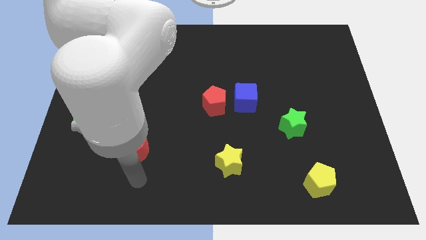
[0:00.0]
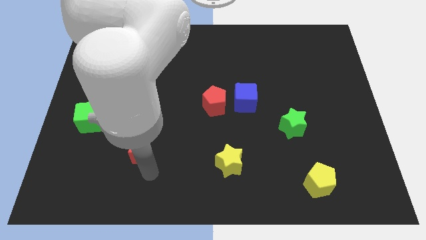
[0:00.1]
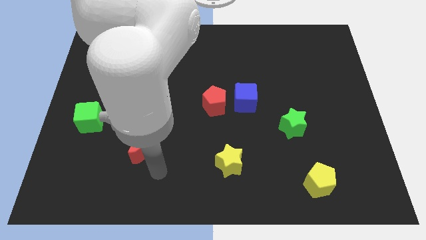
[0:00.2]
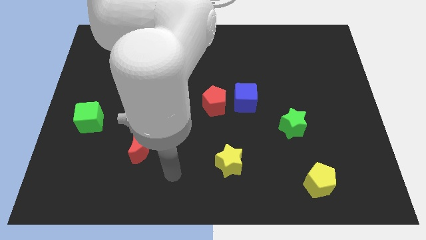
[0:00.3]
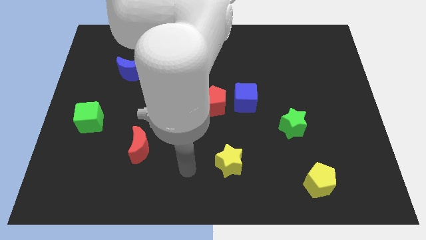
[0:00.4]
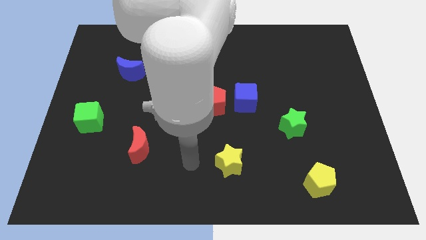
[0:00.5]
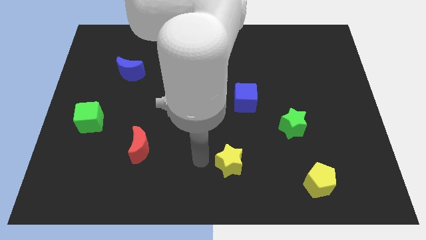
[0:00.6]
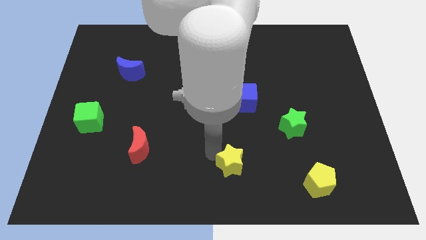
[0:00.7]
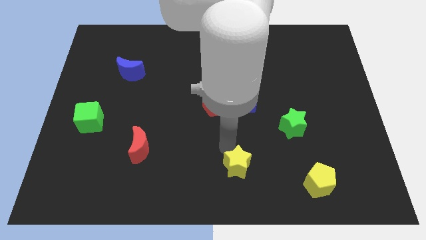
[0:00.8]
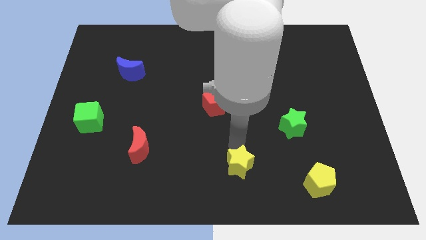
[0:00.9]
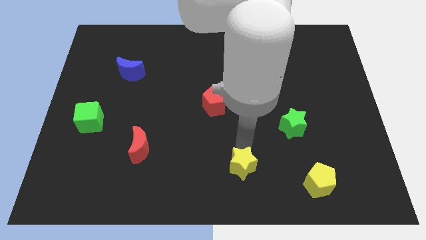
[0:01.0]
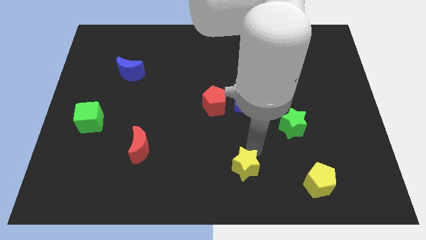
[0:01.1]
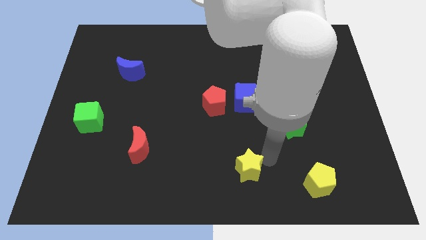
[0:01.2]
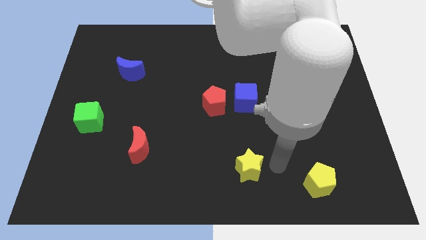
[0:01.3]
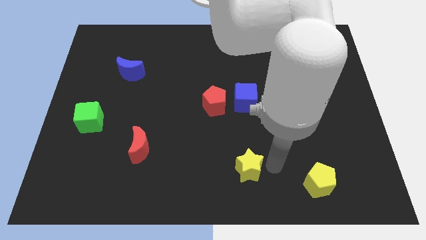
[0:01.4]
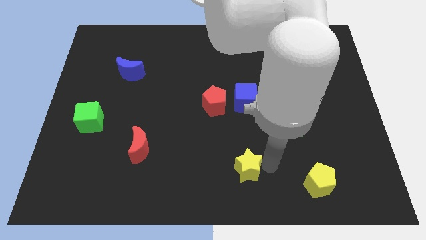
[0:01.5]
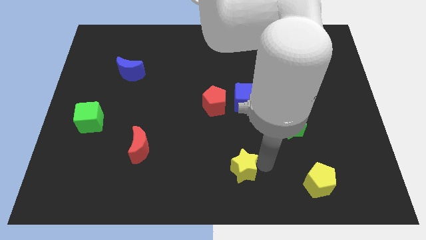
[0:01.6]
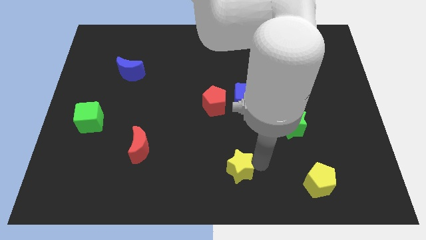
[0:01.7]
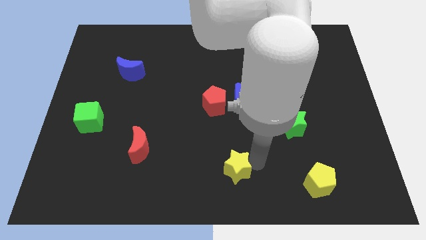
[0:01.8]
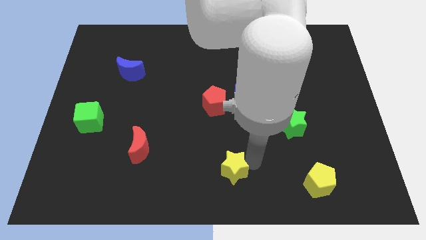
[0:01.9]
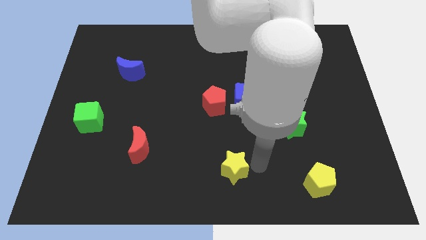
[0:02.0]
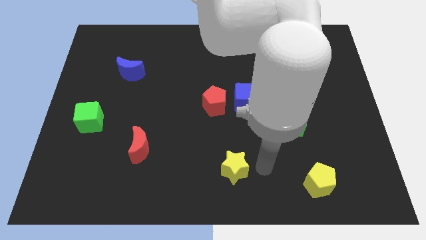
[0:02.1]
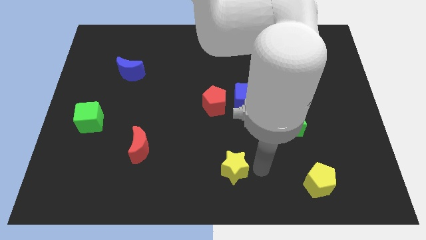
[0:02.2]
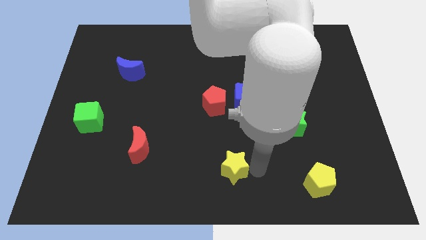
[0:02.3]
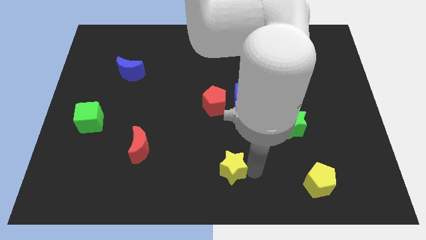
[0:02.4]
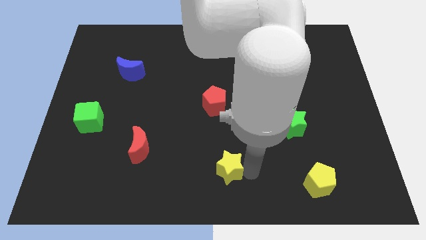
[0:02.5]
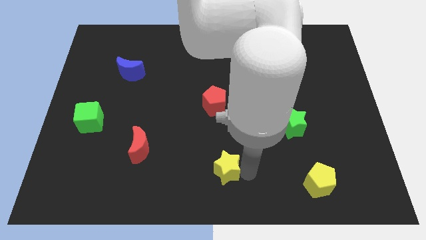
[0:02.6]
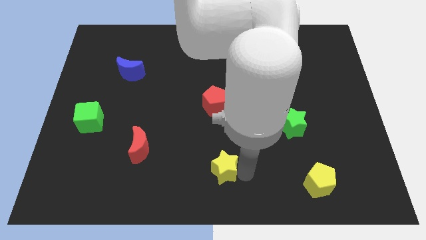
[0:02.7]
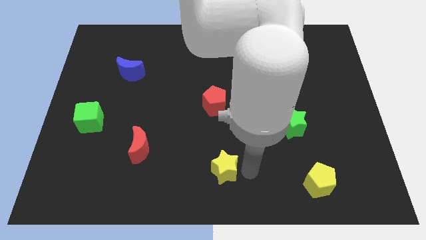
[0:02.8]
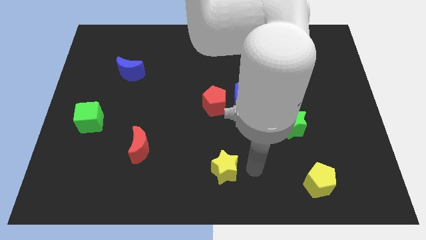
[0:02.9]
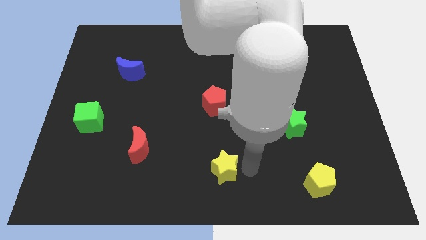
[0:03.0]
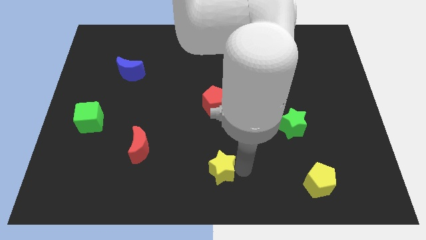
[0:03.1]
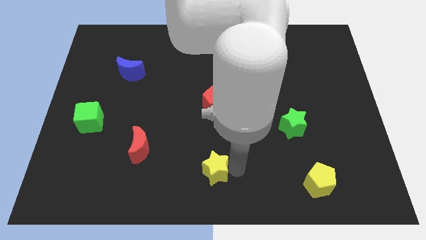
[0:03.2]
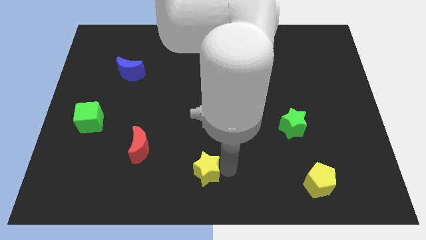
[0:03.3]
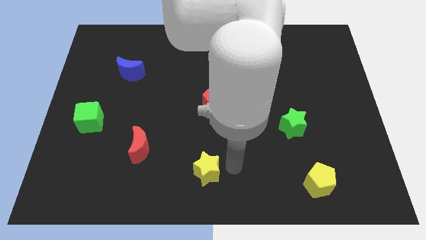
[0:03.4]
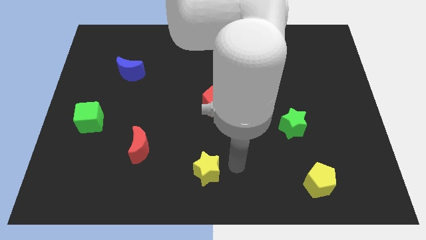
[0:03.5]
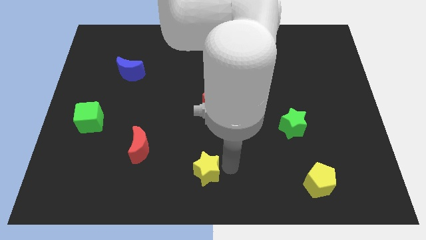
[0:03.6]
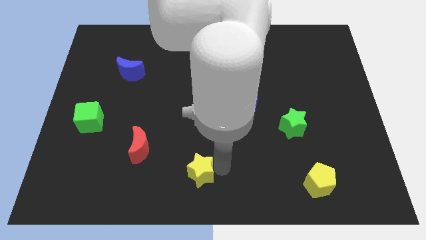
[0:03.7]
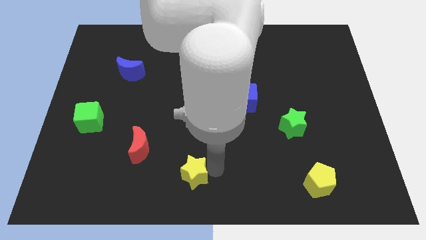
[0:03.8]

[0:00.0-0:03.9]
push the yellow star a little to the left

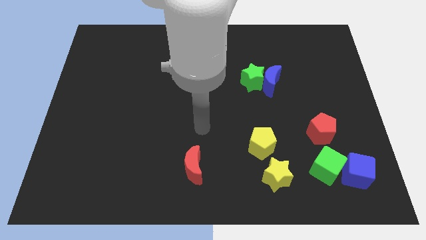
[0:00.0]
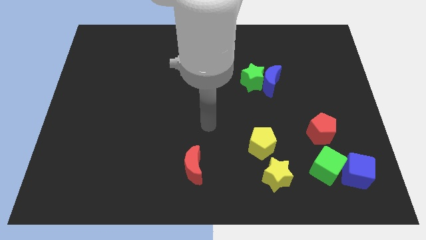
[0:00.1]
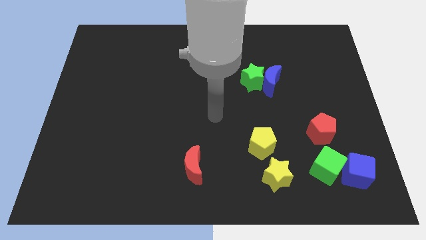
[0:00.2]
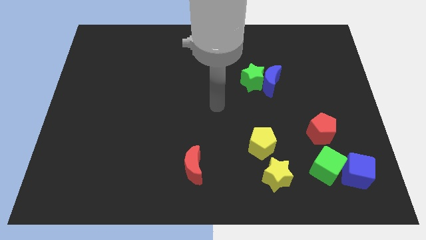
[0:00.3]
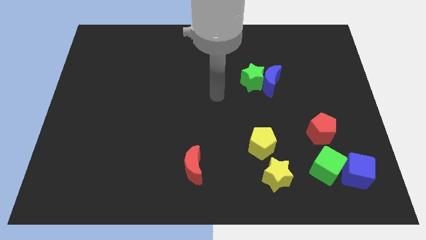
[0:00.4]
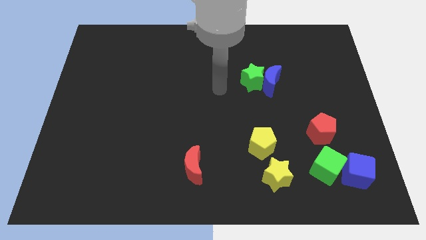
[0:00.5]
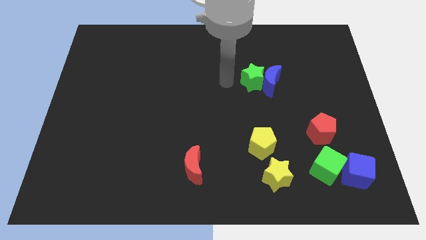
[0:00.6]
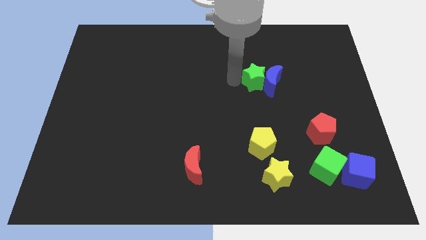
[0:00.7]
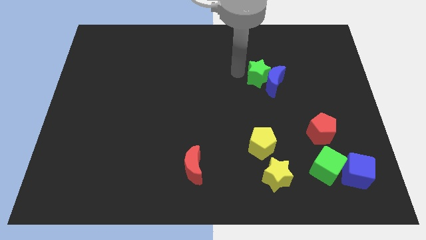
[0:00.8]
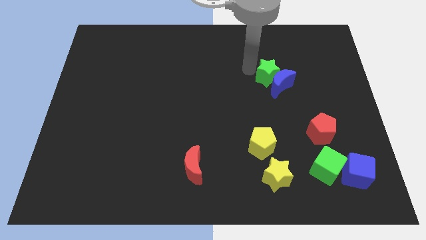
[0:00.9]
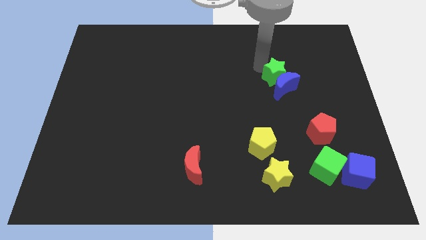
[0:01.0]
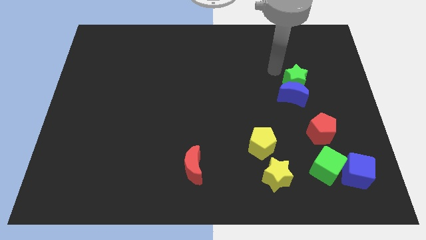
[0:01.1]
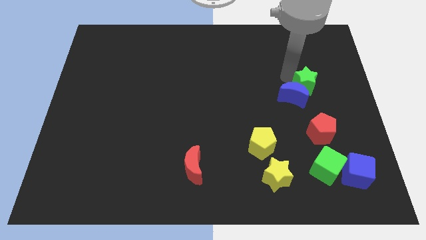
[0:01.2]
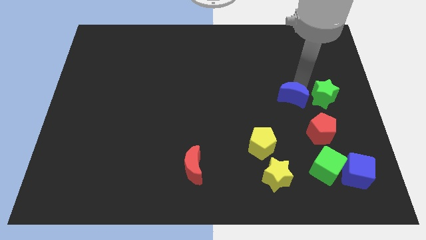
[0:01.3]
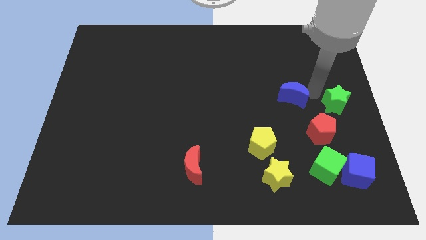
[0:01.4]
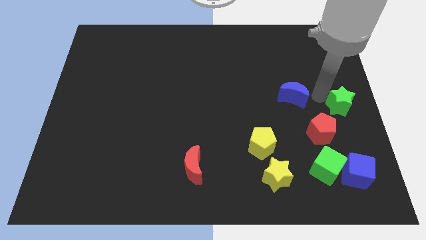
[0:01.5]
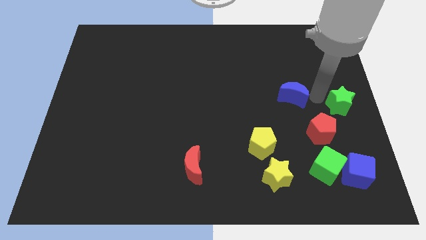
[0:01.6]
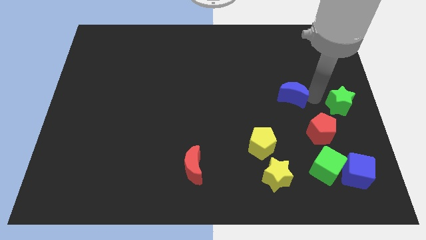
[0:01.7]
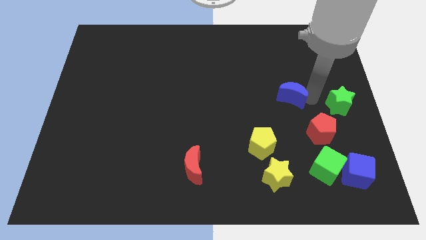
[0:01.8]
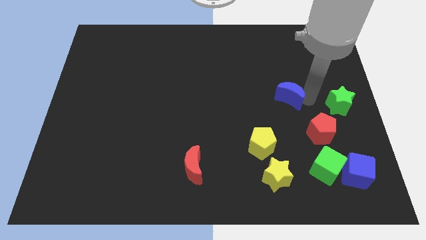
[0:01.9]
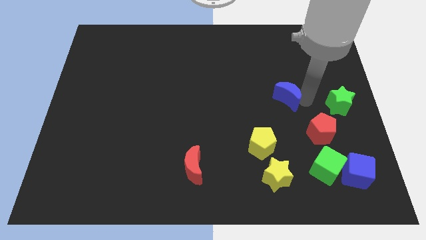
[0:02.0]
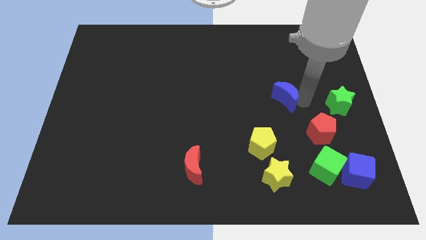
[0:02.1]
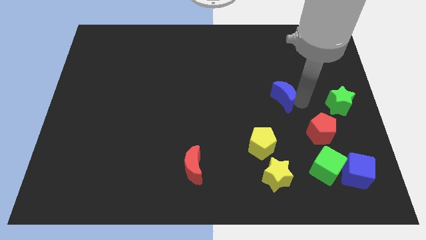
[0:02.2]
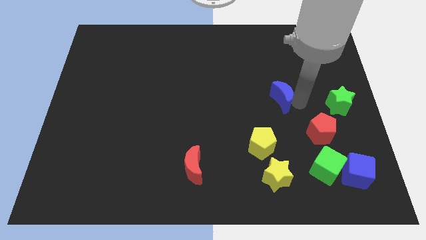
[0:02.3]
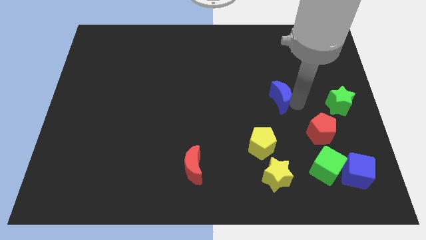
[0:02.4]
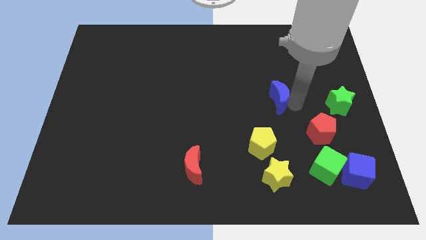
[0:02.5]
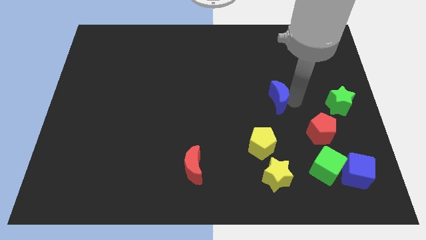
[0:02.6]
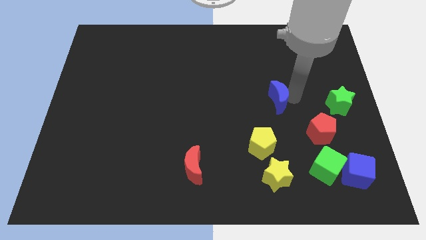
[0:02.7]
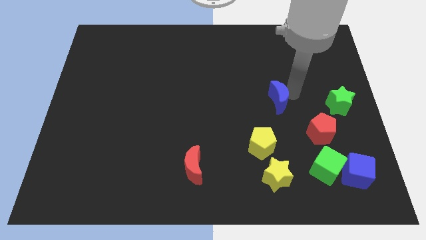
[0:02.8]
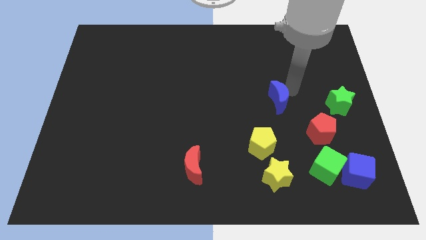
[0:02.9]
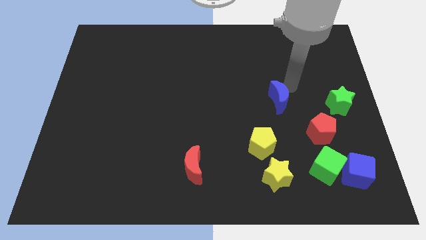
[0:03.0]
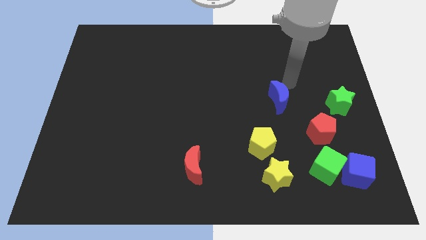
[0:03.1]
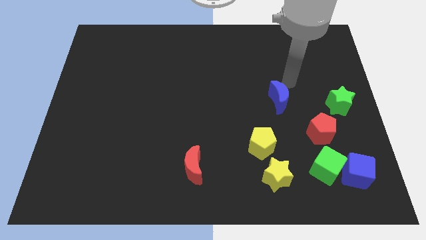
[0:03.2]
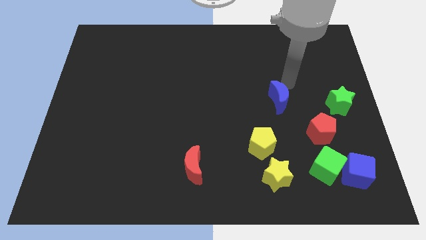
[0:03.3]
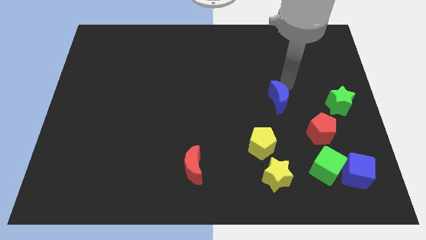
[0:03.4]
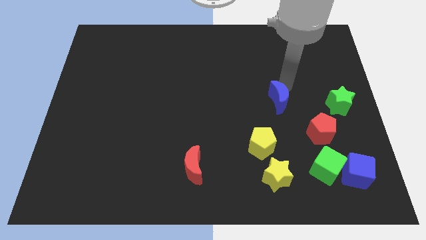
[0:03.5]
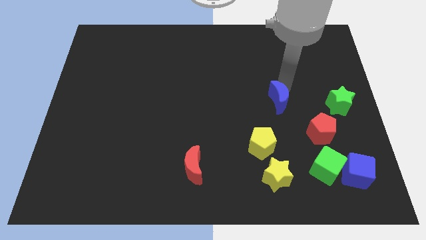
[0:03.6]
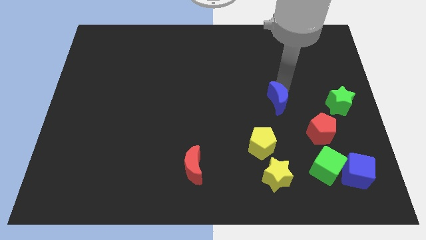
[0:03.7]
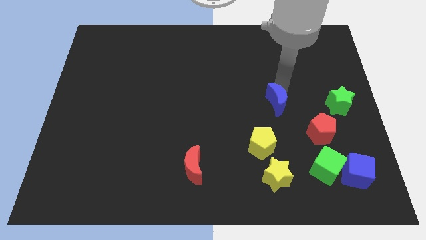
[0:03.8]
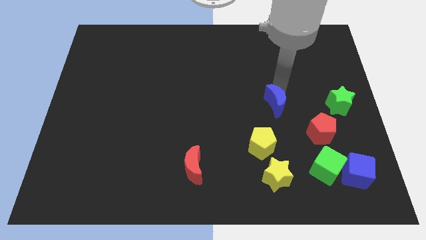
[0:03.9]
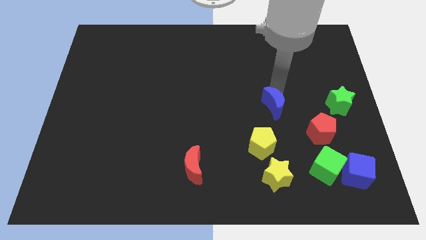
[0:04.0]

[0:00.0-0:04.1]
move the blue moon a little down

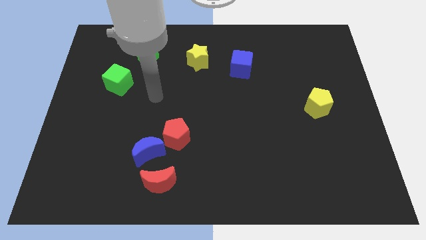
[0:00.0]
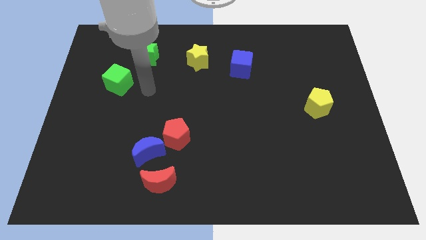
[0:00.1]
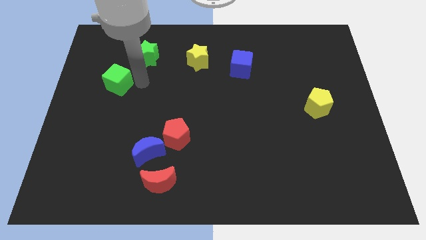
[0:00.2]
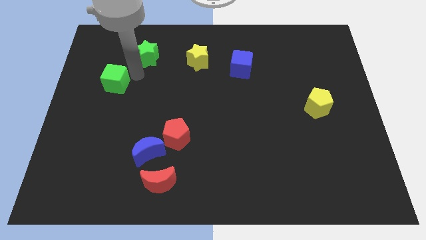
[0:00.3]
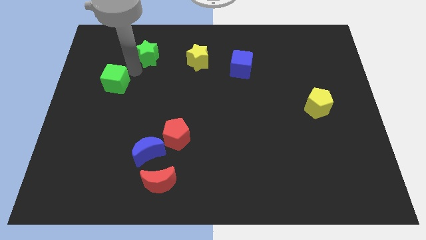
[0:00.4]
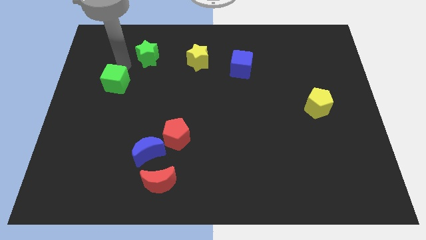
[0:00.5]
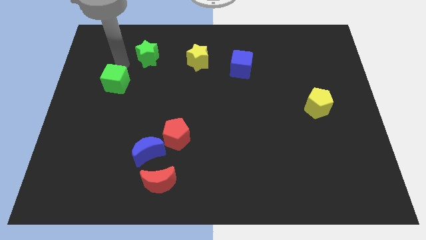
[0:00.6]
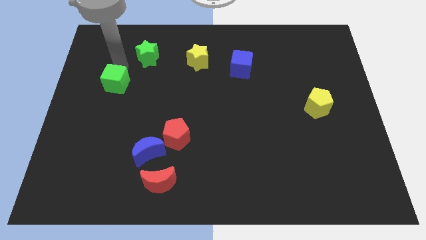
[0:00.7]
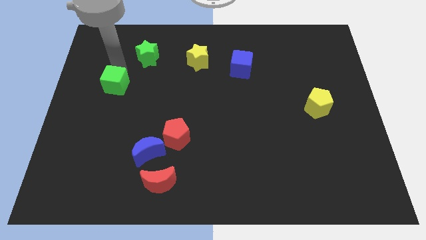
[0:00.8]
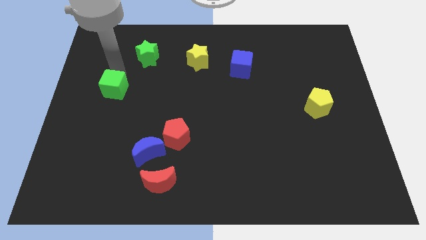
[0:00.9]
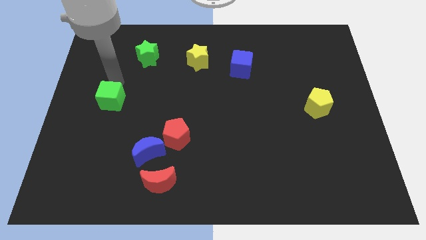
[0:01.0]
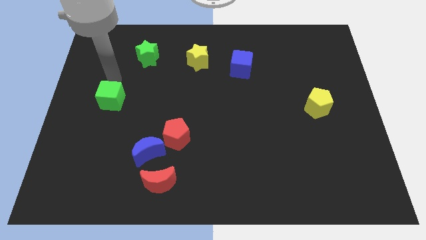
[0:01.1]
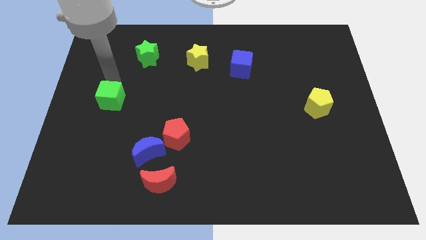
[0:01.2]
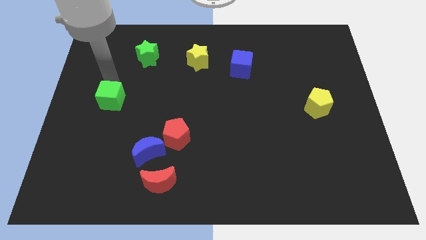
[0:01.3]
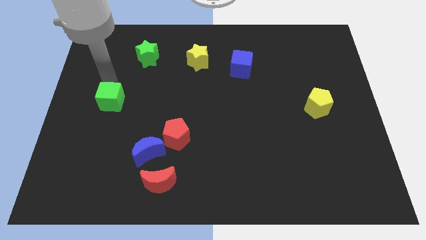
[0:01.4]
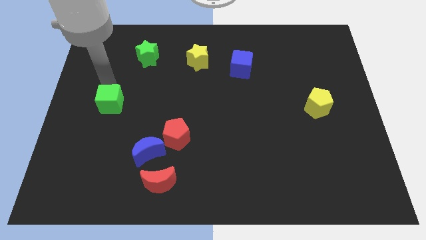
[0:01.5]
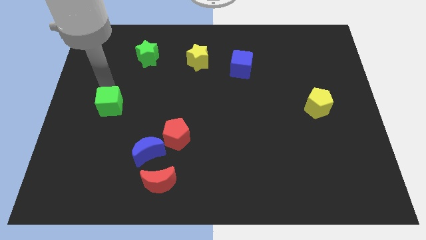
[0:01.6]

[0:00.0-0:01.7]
push the green cube a little down
